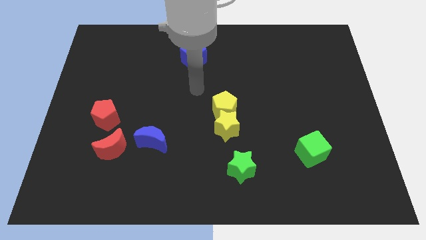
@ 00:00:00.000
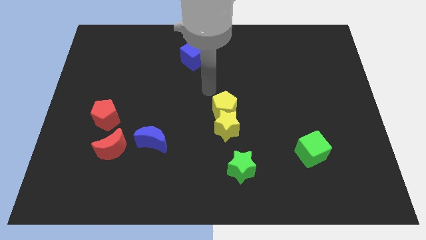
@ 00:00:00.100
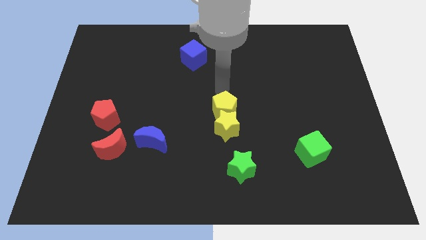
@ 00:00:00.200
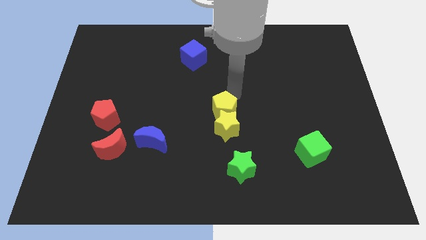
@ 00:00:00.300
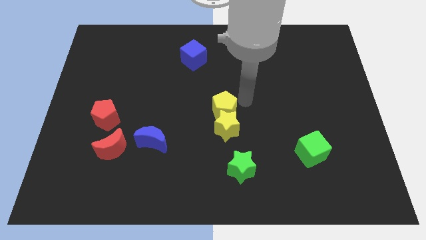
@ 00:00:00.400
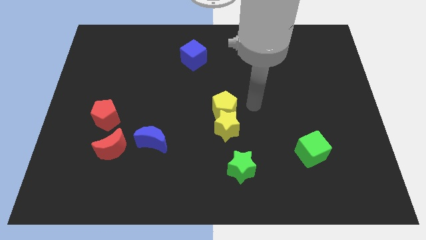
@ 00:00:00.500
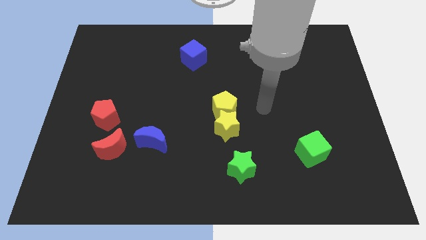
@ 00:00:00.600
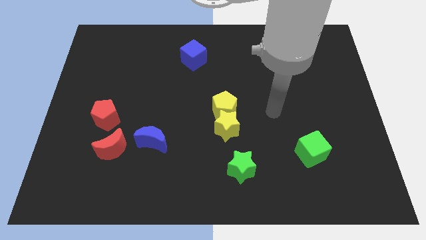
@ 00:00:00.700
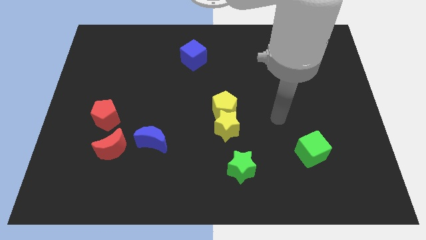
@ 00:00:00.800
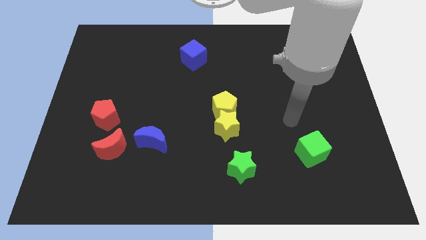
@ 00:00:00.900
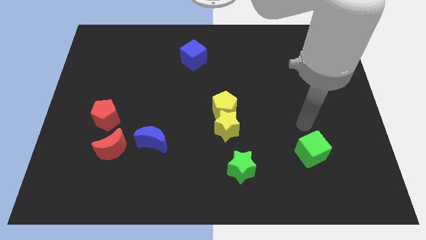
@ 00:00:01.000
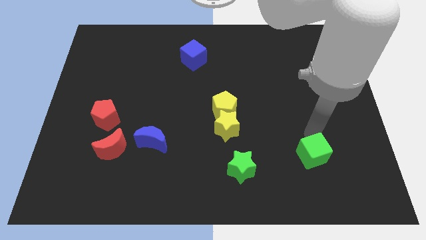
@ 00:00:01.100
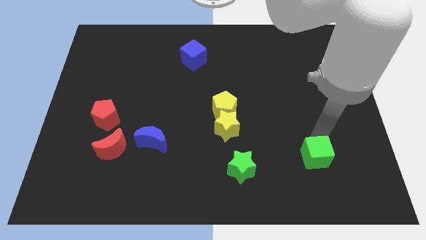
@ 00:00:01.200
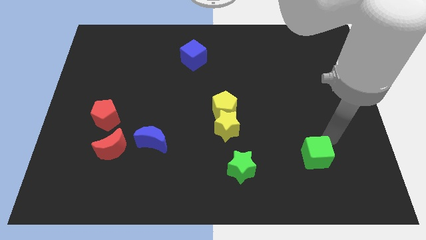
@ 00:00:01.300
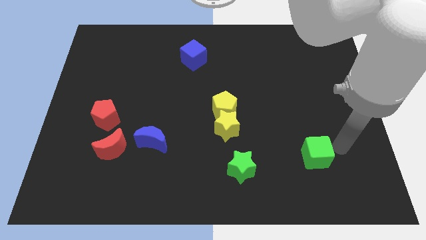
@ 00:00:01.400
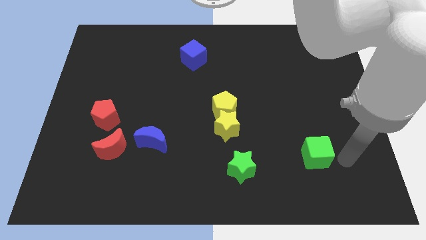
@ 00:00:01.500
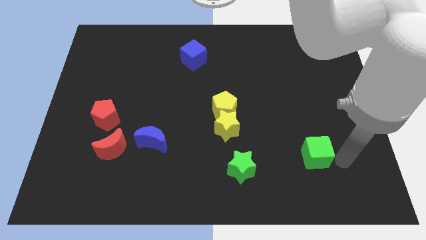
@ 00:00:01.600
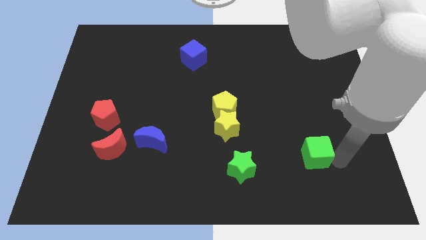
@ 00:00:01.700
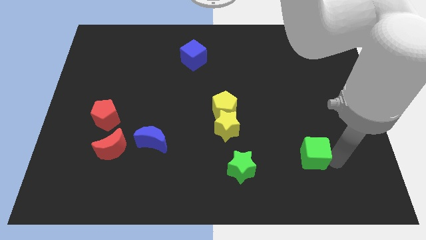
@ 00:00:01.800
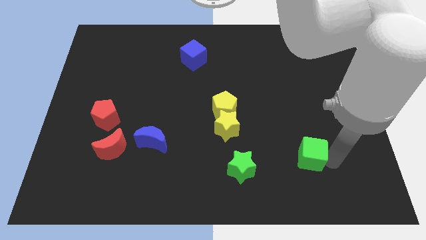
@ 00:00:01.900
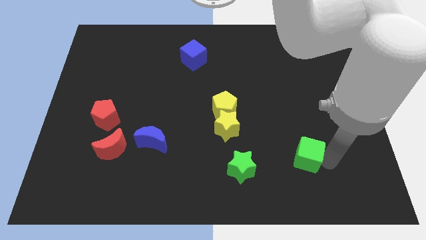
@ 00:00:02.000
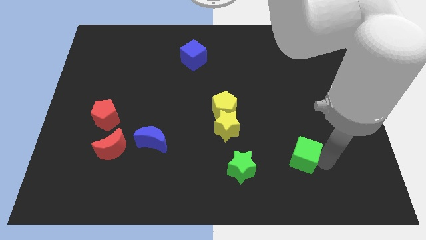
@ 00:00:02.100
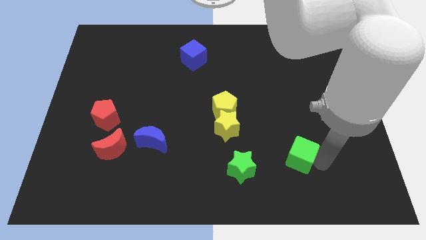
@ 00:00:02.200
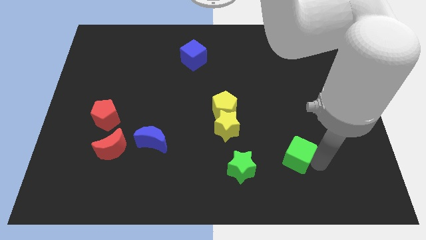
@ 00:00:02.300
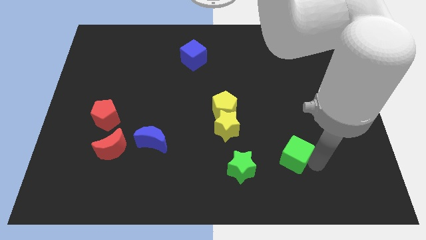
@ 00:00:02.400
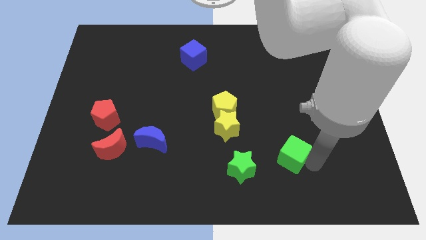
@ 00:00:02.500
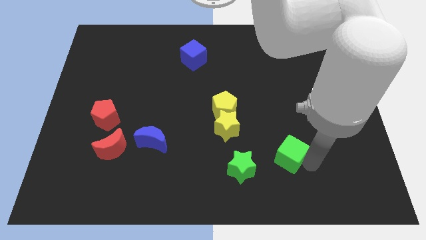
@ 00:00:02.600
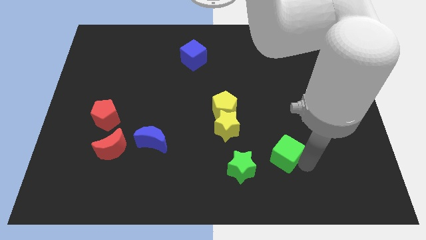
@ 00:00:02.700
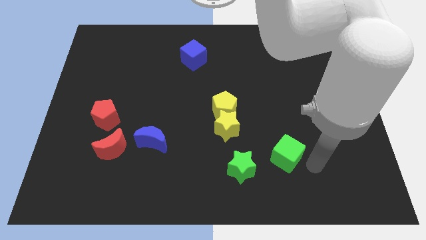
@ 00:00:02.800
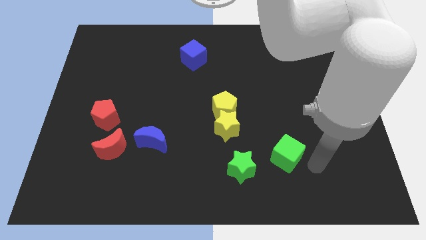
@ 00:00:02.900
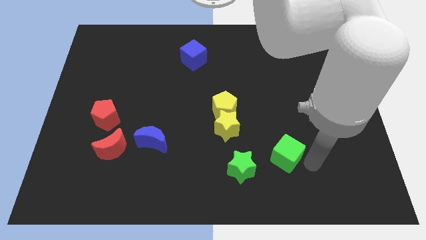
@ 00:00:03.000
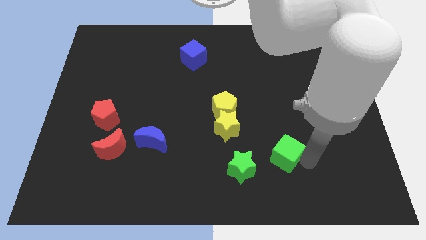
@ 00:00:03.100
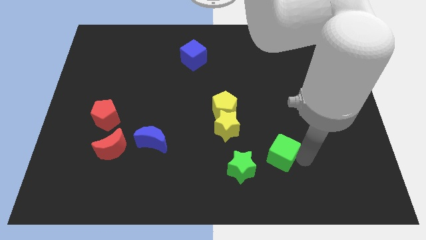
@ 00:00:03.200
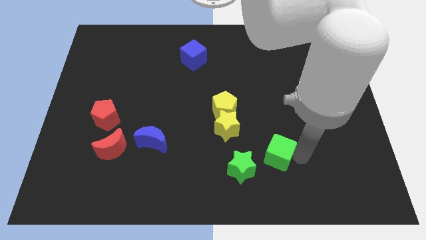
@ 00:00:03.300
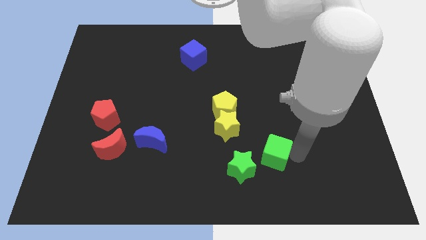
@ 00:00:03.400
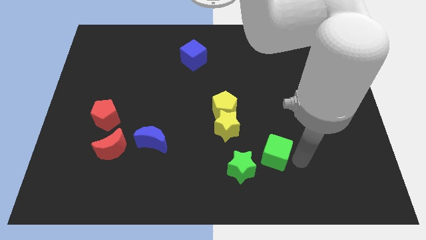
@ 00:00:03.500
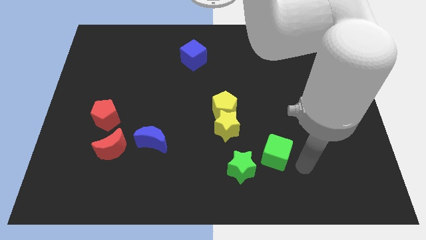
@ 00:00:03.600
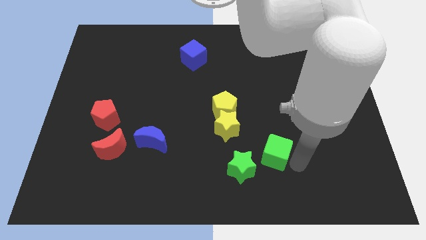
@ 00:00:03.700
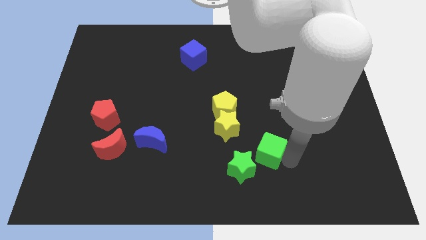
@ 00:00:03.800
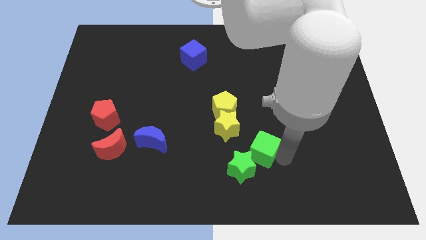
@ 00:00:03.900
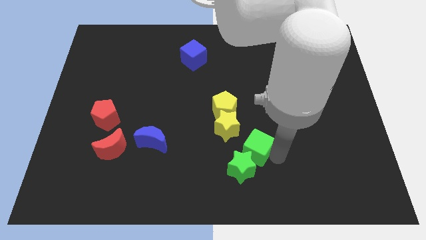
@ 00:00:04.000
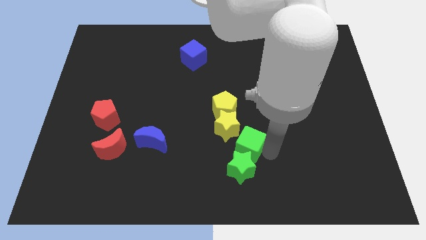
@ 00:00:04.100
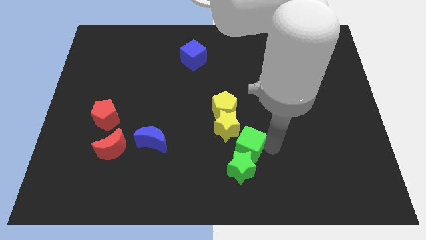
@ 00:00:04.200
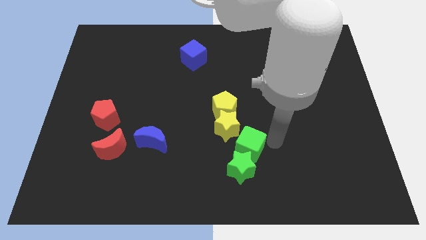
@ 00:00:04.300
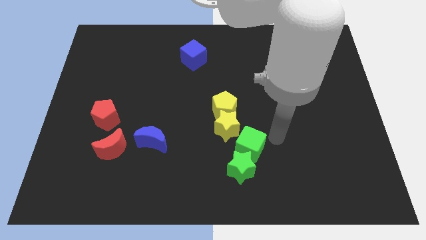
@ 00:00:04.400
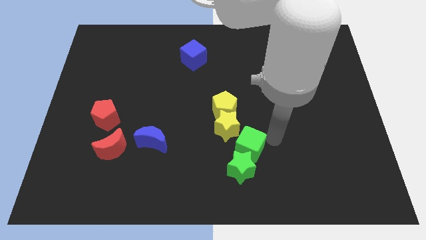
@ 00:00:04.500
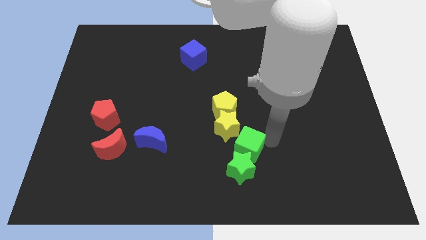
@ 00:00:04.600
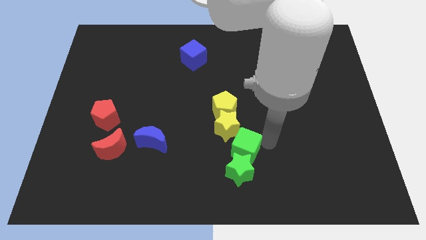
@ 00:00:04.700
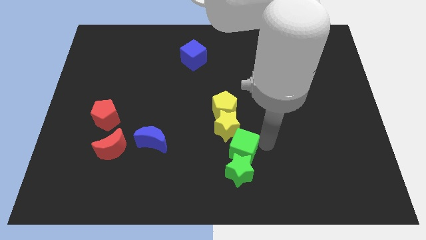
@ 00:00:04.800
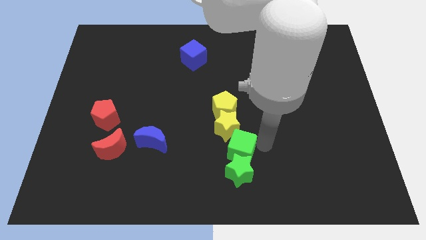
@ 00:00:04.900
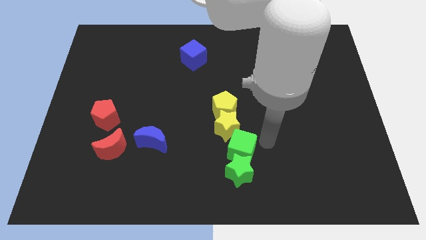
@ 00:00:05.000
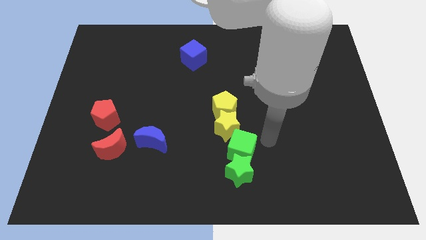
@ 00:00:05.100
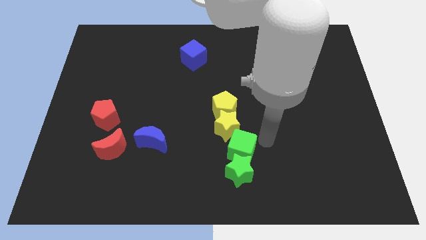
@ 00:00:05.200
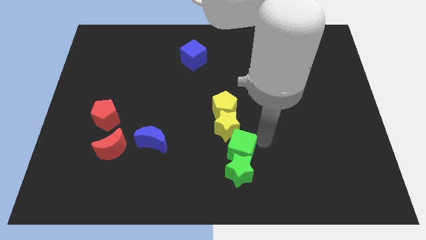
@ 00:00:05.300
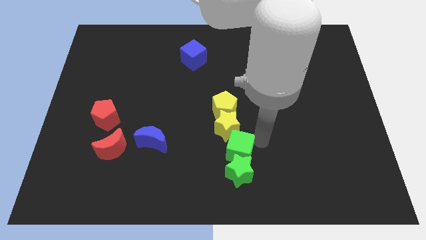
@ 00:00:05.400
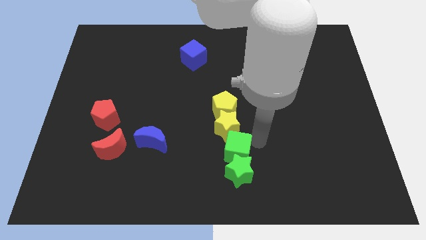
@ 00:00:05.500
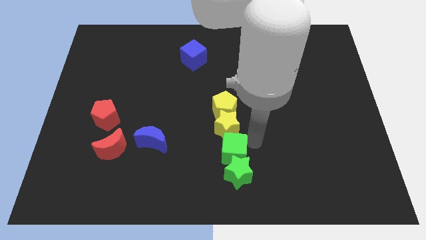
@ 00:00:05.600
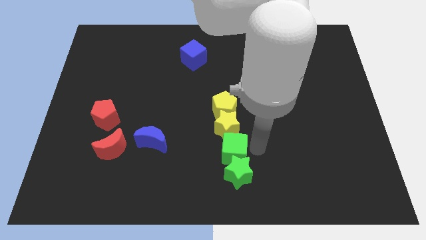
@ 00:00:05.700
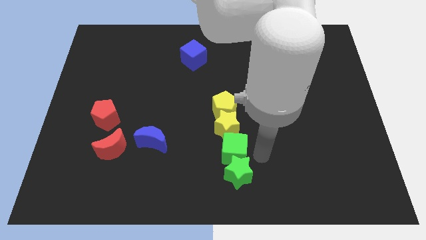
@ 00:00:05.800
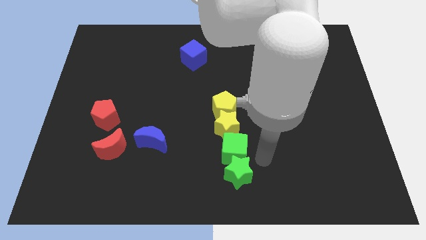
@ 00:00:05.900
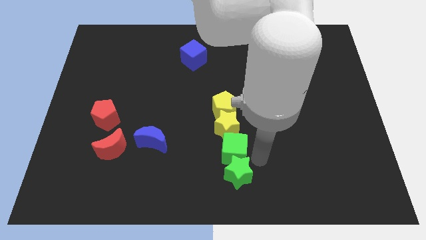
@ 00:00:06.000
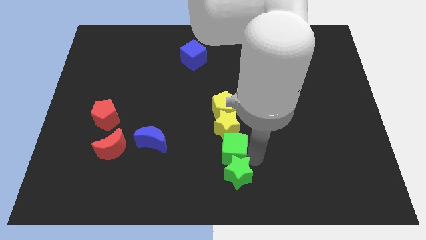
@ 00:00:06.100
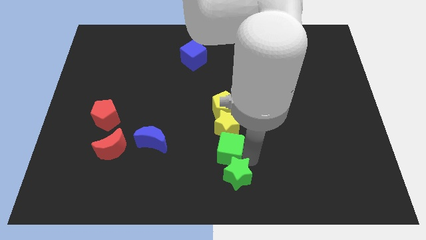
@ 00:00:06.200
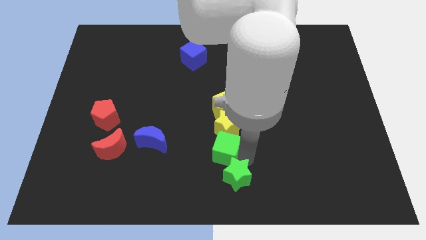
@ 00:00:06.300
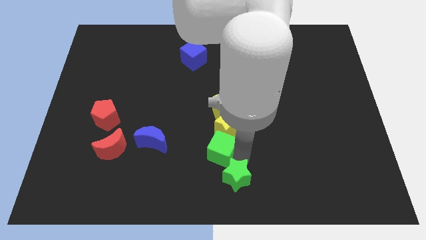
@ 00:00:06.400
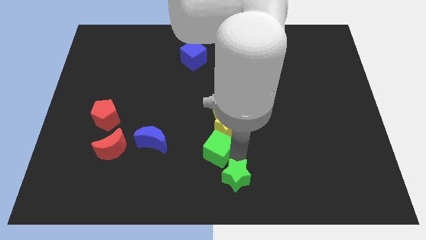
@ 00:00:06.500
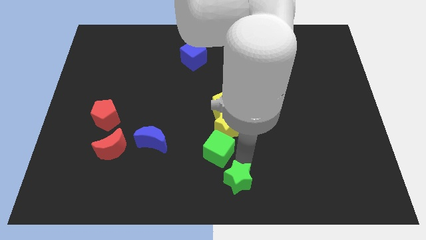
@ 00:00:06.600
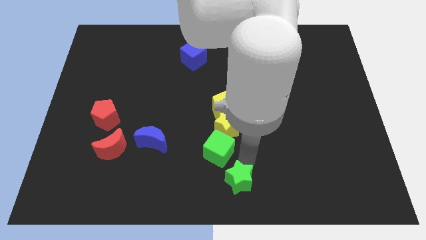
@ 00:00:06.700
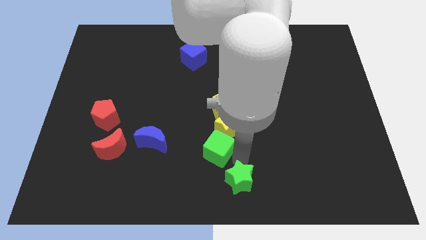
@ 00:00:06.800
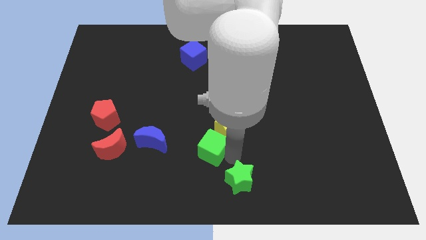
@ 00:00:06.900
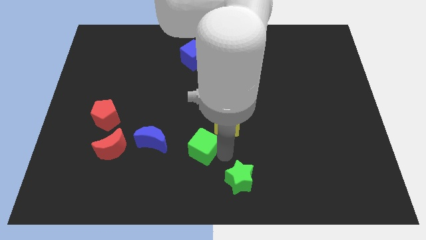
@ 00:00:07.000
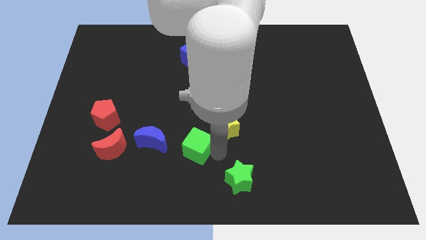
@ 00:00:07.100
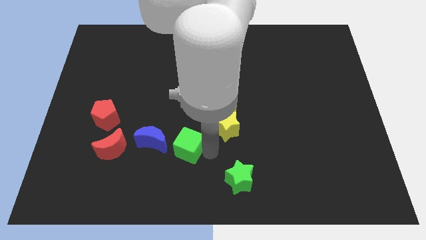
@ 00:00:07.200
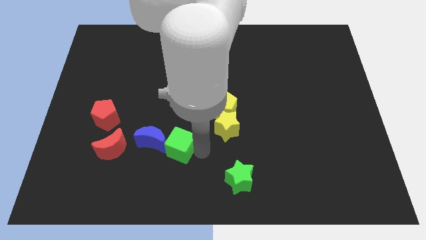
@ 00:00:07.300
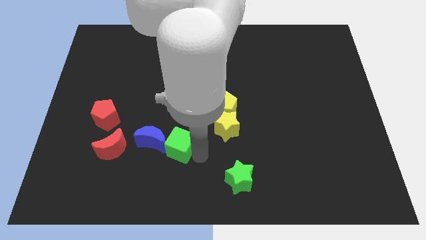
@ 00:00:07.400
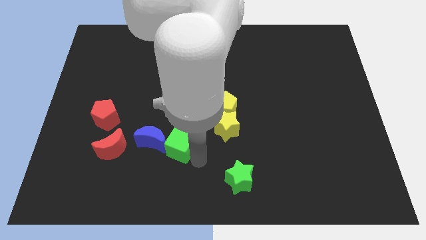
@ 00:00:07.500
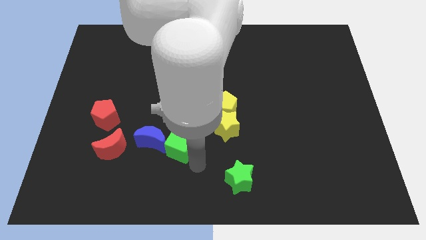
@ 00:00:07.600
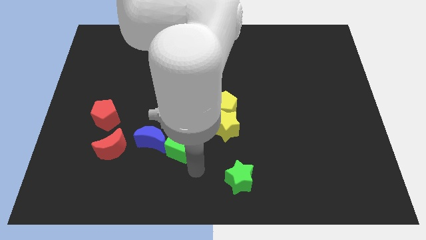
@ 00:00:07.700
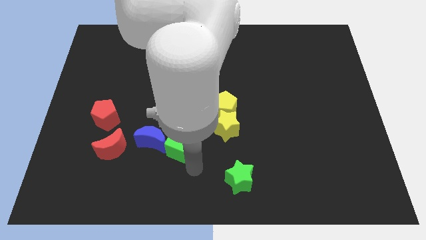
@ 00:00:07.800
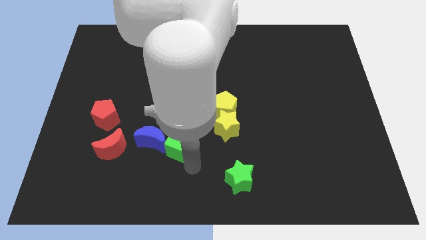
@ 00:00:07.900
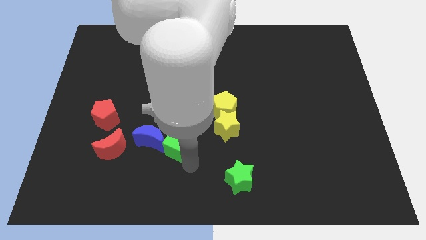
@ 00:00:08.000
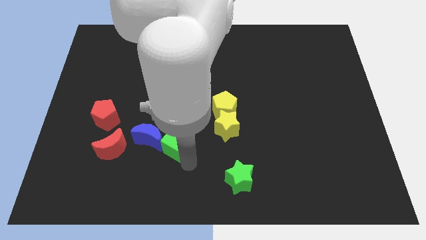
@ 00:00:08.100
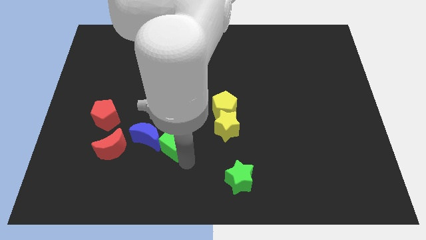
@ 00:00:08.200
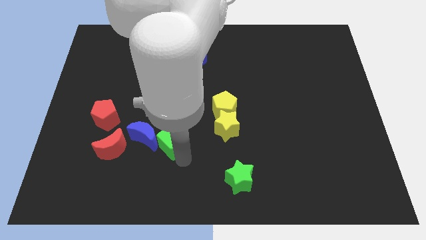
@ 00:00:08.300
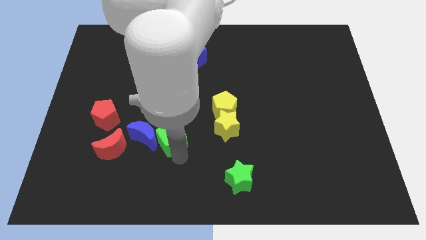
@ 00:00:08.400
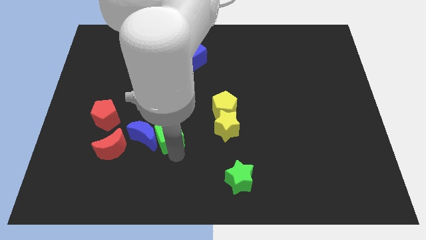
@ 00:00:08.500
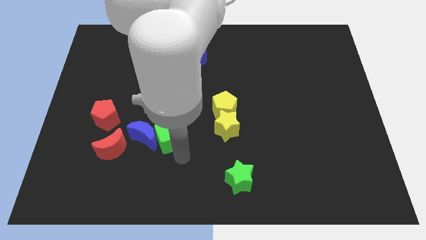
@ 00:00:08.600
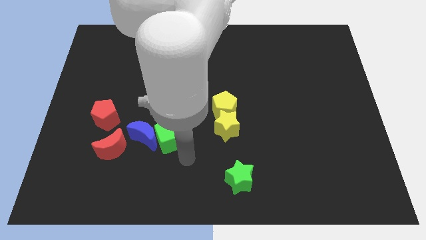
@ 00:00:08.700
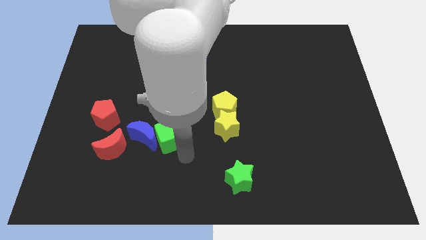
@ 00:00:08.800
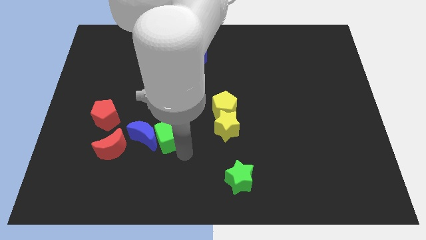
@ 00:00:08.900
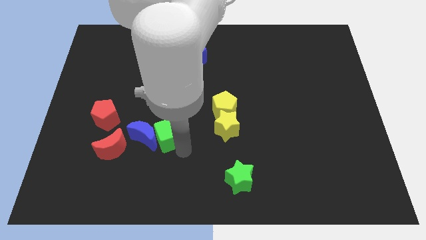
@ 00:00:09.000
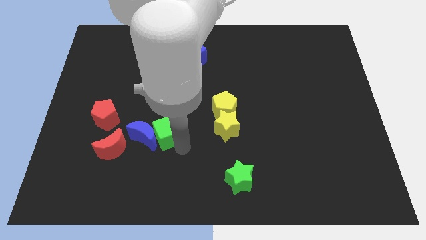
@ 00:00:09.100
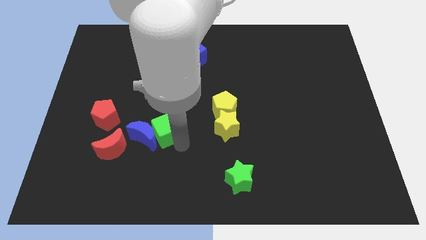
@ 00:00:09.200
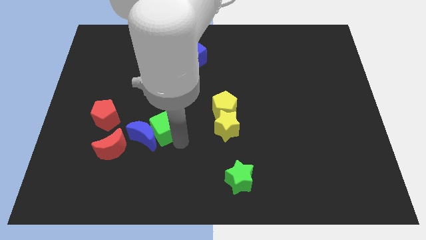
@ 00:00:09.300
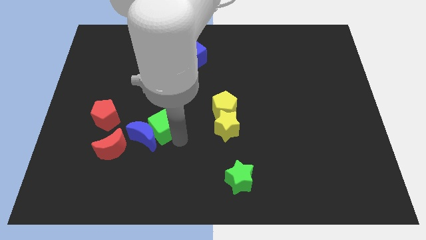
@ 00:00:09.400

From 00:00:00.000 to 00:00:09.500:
move the green cube diagonally up and to the right of the red moon
